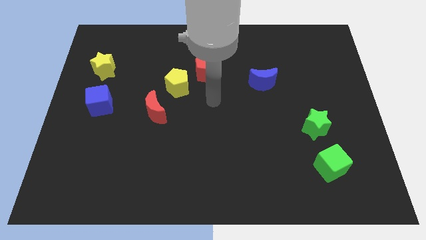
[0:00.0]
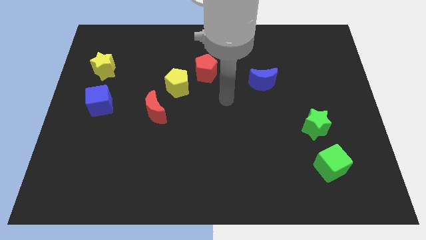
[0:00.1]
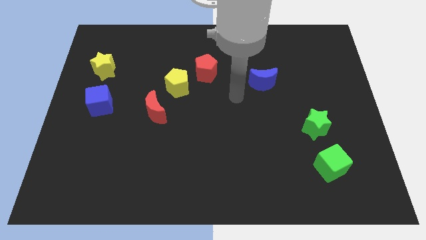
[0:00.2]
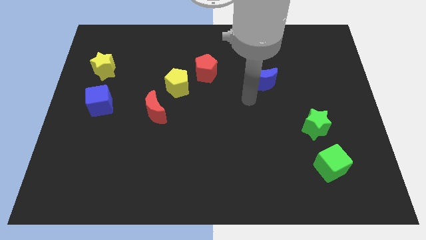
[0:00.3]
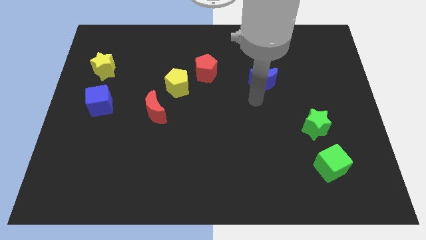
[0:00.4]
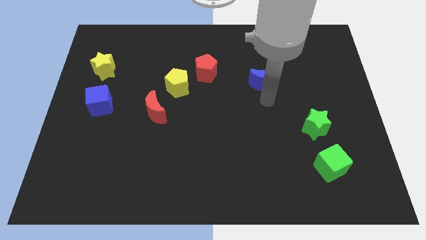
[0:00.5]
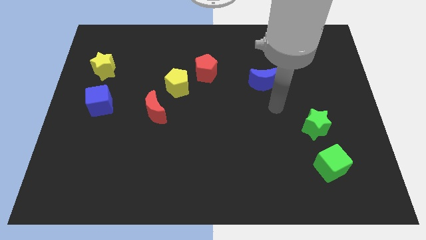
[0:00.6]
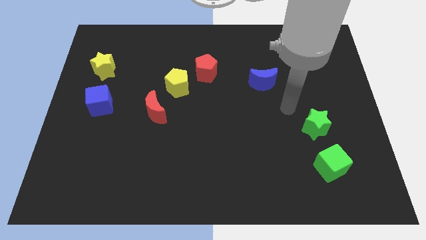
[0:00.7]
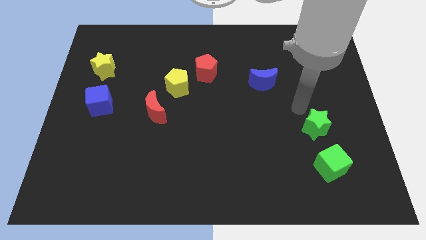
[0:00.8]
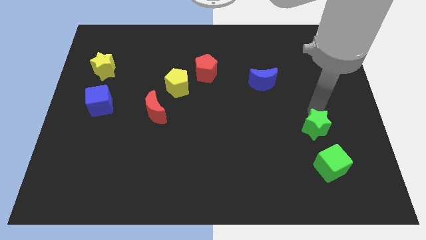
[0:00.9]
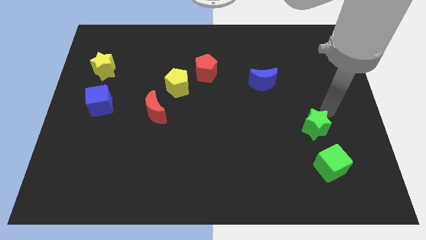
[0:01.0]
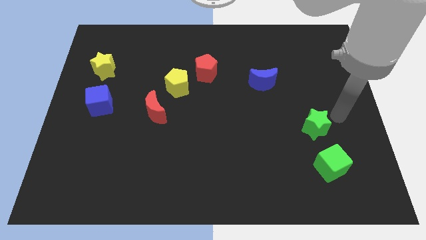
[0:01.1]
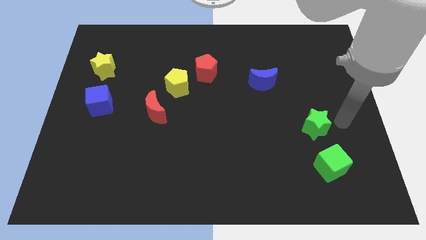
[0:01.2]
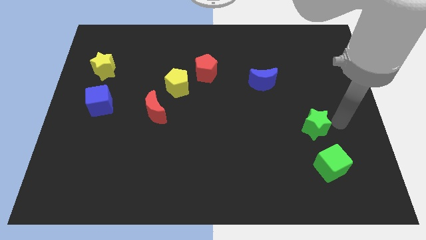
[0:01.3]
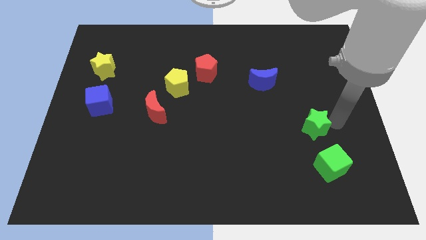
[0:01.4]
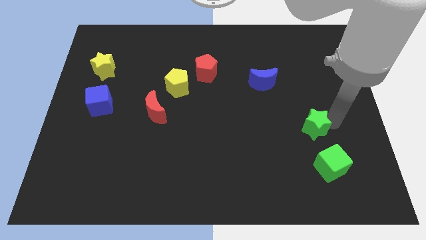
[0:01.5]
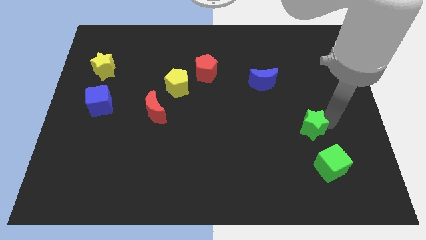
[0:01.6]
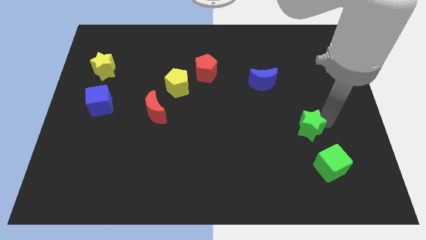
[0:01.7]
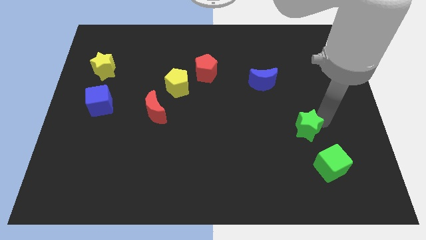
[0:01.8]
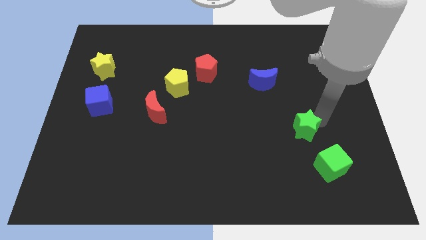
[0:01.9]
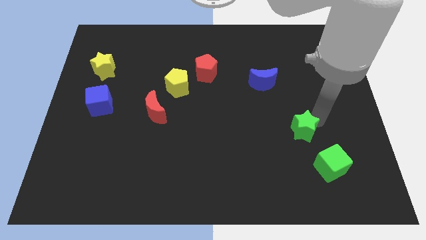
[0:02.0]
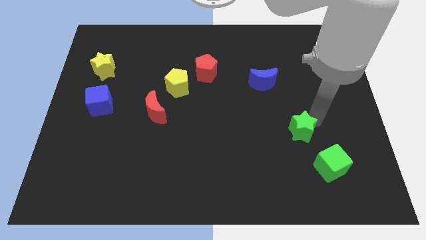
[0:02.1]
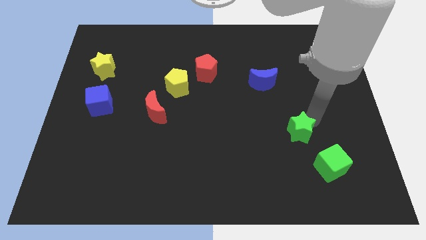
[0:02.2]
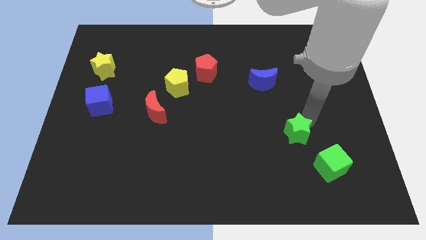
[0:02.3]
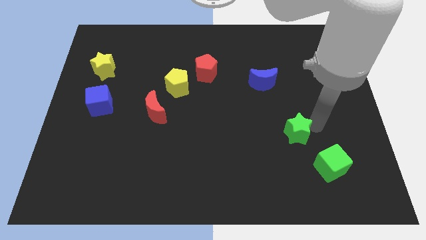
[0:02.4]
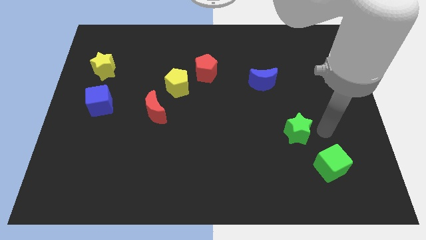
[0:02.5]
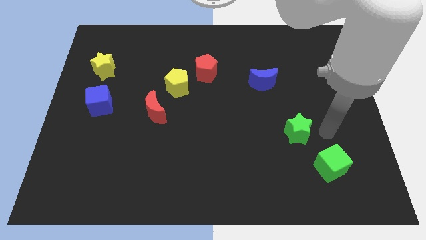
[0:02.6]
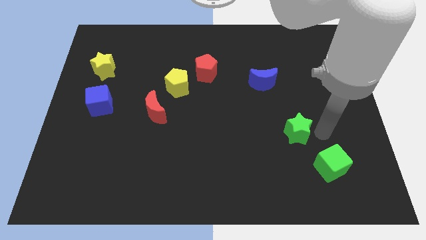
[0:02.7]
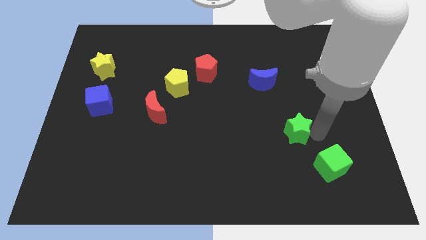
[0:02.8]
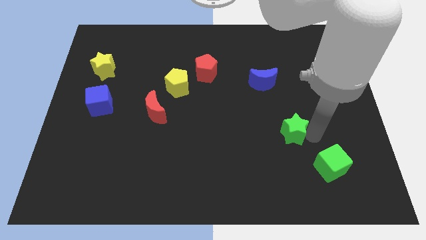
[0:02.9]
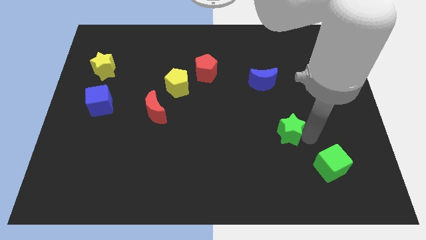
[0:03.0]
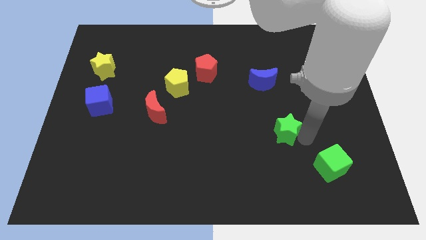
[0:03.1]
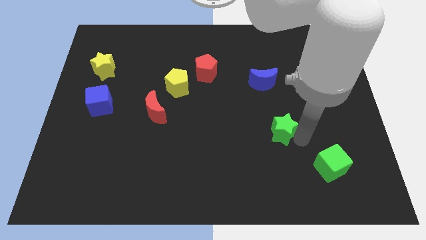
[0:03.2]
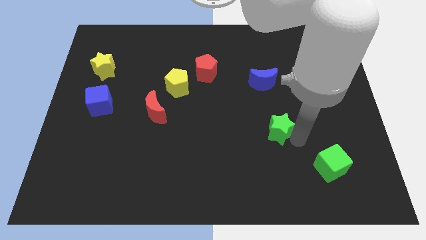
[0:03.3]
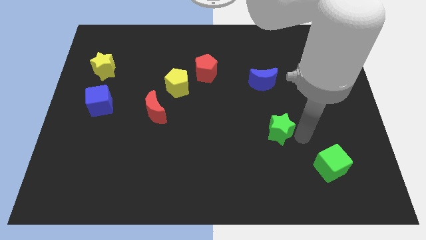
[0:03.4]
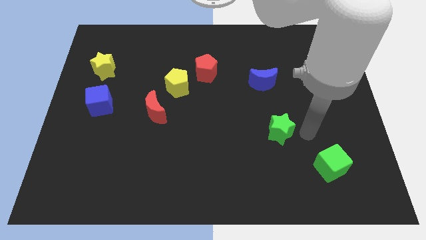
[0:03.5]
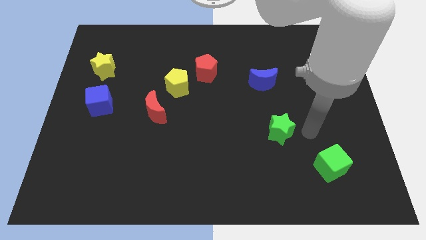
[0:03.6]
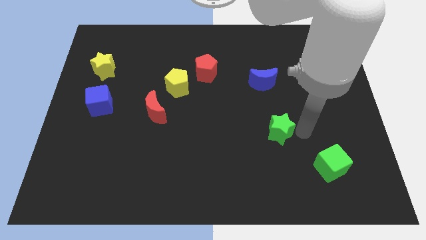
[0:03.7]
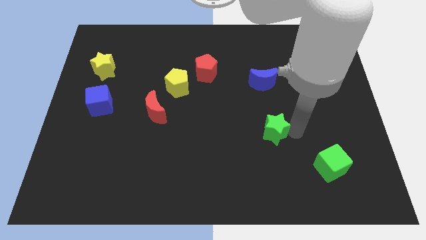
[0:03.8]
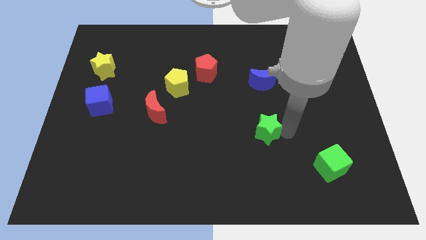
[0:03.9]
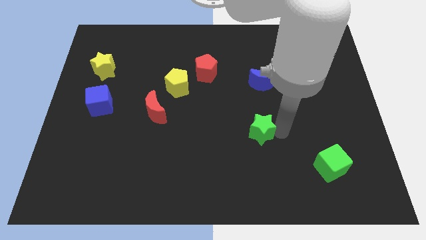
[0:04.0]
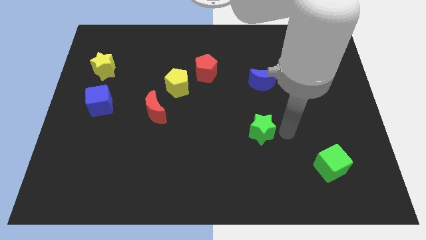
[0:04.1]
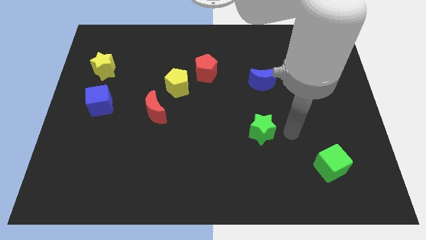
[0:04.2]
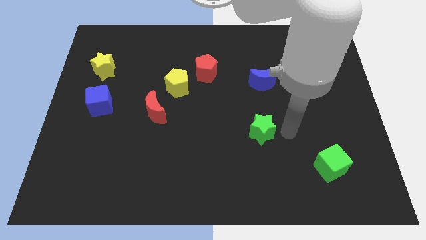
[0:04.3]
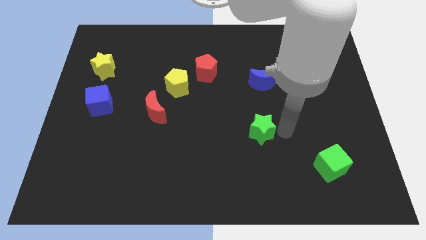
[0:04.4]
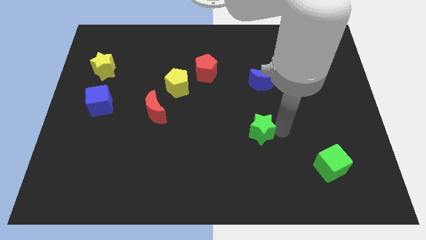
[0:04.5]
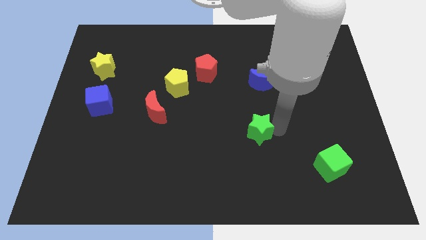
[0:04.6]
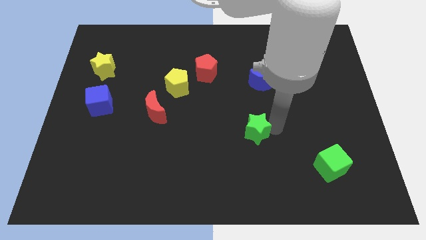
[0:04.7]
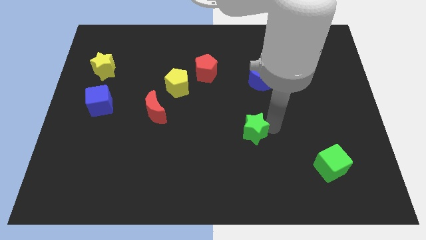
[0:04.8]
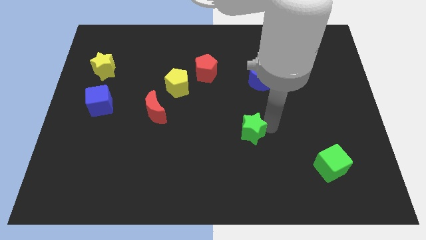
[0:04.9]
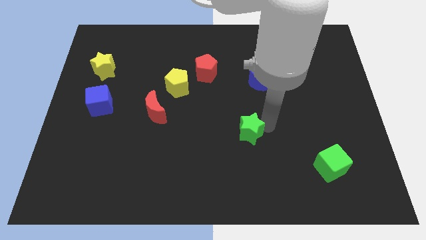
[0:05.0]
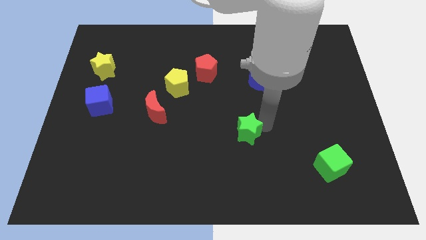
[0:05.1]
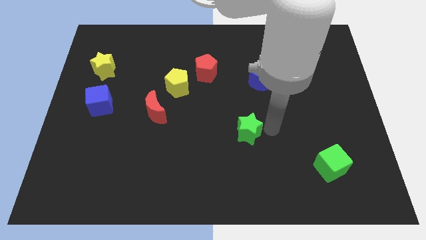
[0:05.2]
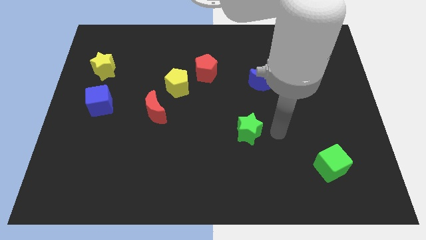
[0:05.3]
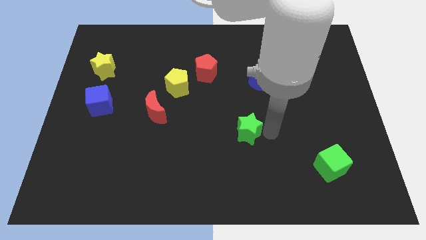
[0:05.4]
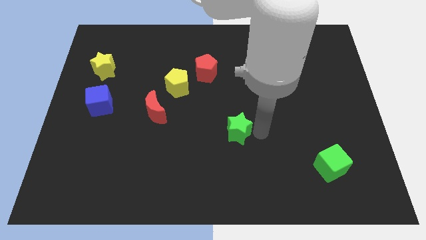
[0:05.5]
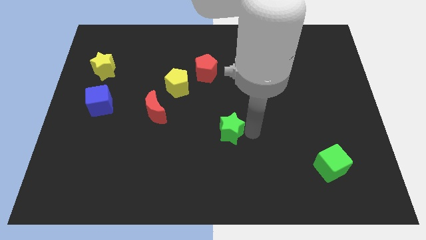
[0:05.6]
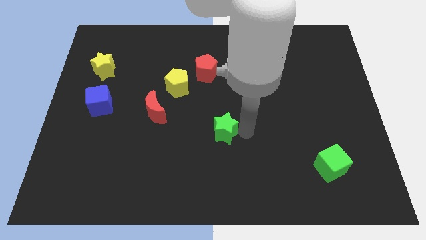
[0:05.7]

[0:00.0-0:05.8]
slide the green star left

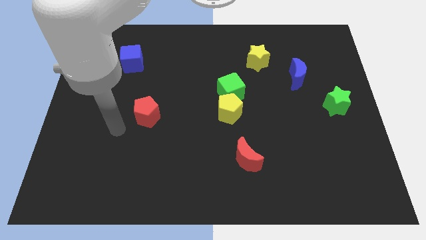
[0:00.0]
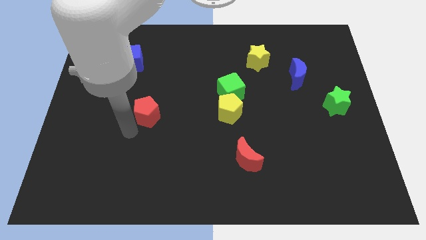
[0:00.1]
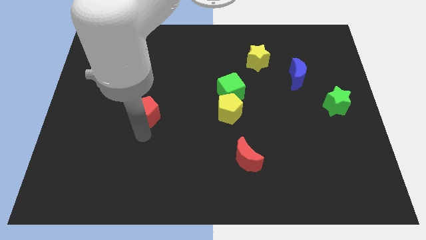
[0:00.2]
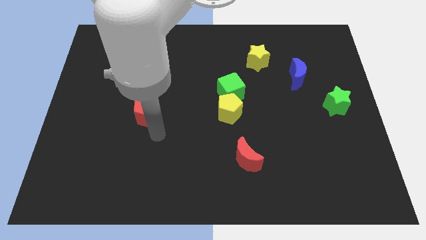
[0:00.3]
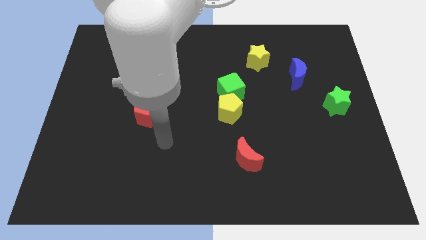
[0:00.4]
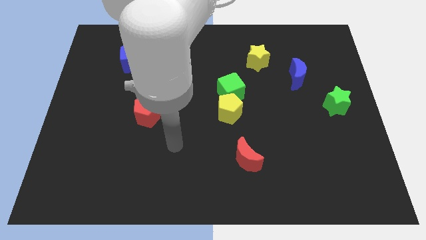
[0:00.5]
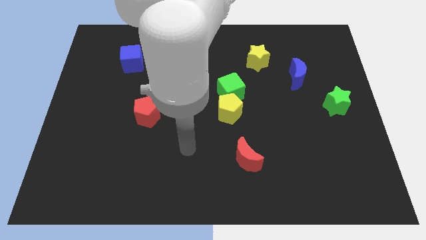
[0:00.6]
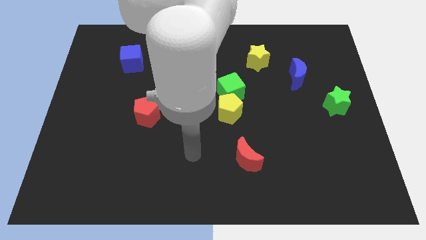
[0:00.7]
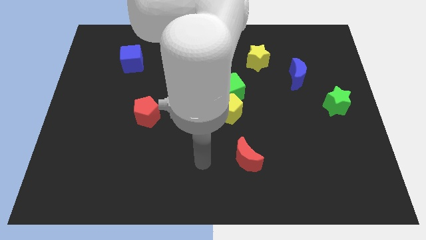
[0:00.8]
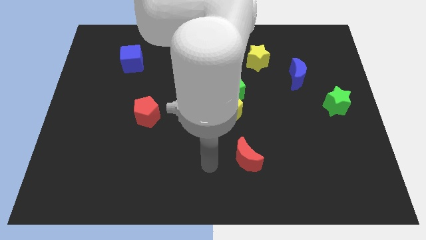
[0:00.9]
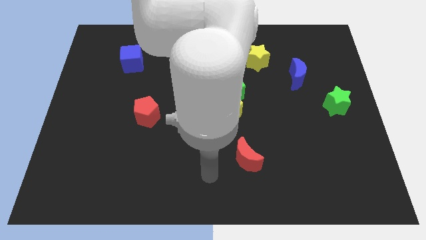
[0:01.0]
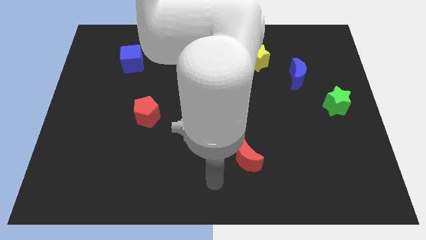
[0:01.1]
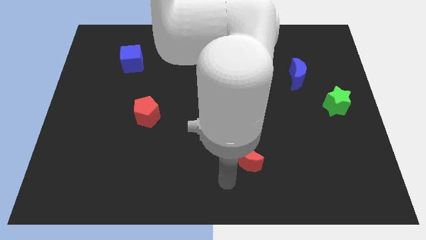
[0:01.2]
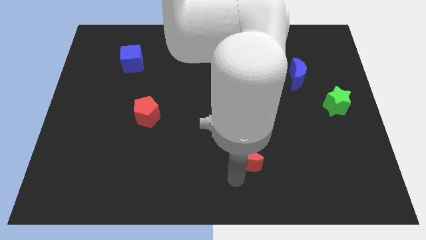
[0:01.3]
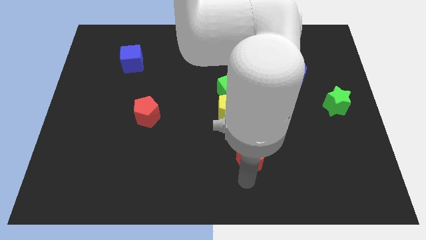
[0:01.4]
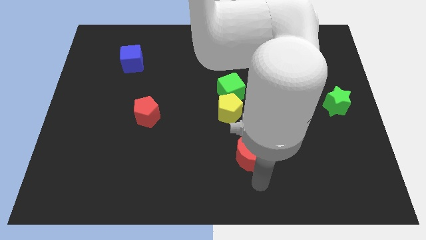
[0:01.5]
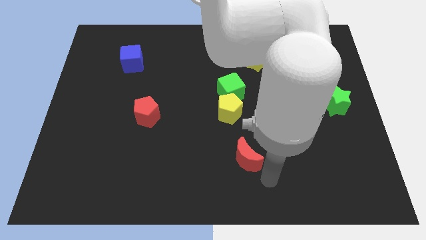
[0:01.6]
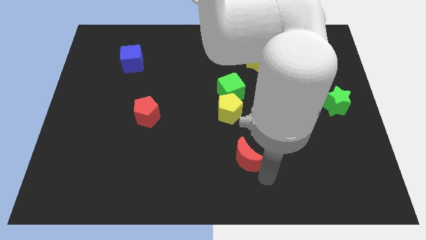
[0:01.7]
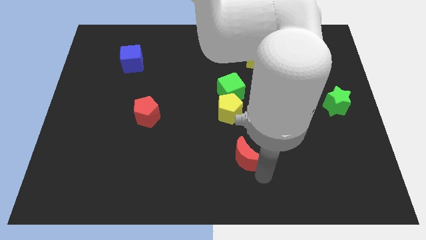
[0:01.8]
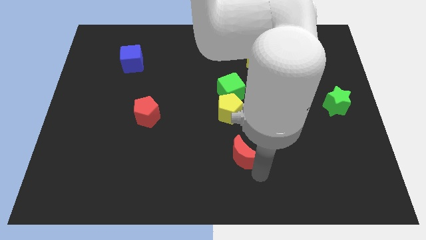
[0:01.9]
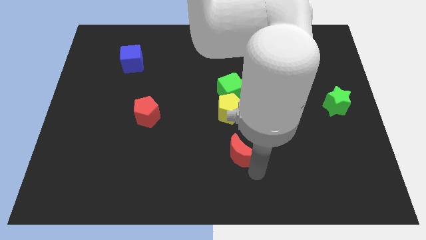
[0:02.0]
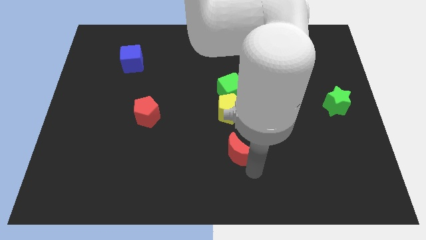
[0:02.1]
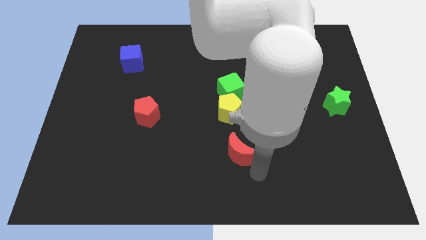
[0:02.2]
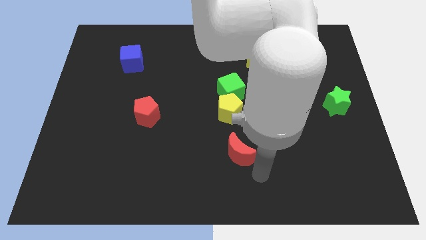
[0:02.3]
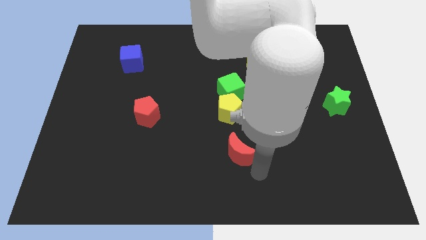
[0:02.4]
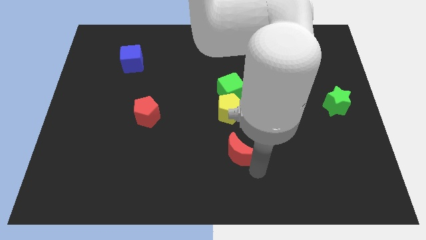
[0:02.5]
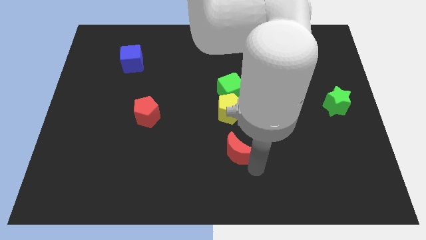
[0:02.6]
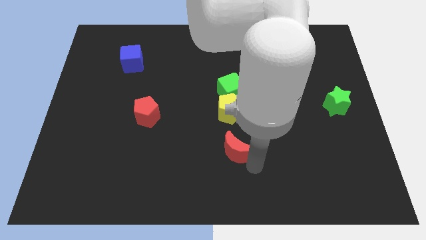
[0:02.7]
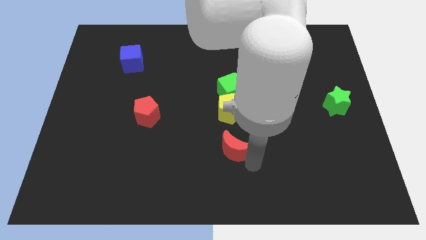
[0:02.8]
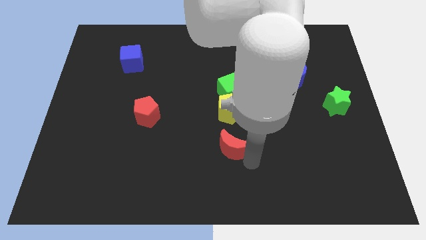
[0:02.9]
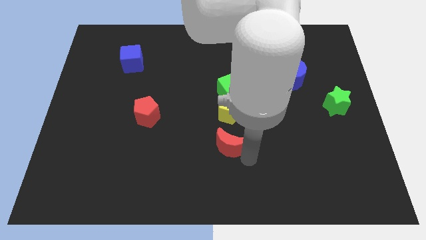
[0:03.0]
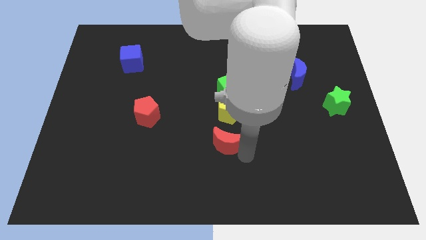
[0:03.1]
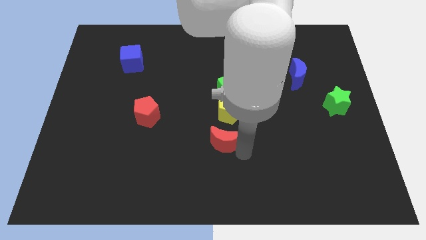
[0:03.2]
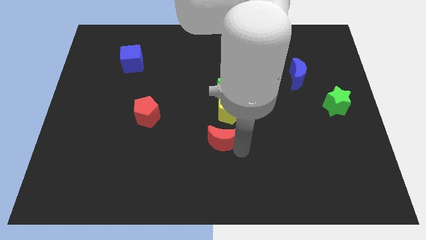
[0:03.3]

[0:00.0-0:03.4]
move the red moon upwards and to the left slightly
